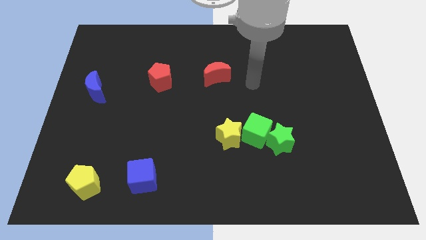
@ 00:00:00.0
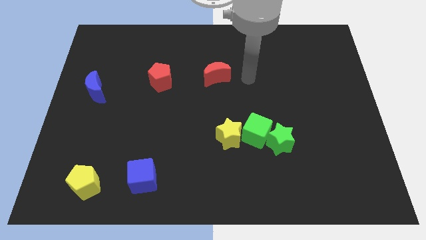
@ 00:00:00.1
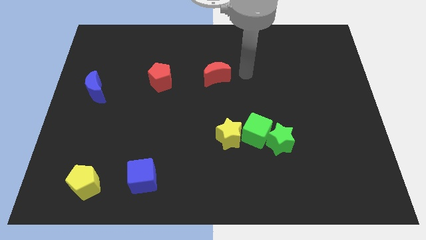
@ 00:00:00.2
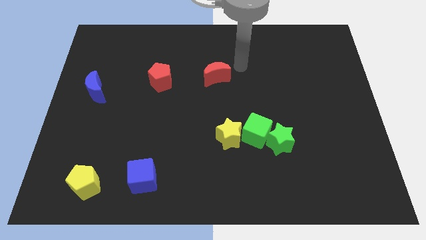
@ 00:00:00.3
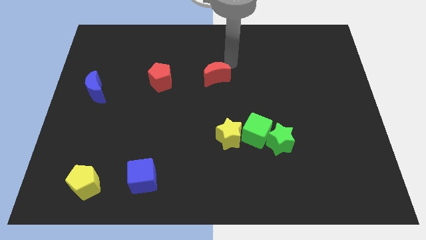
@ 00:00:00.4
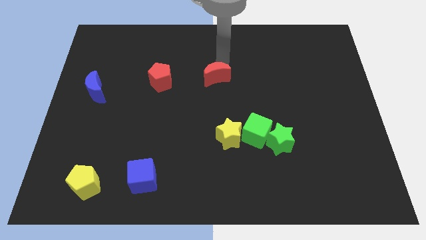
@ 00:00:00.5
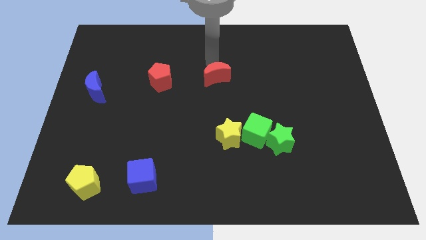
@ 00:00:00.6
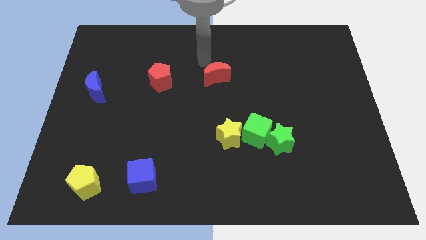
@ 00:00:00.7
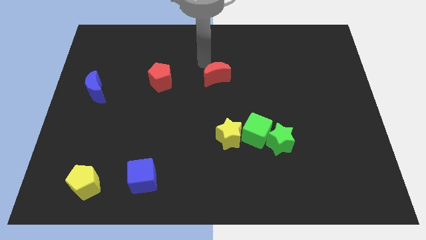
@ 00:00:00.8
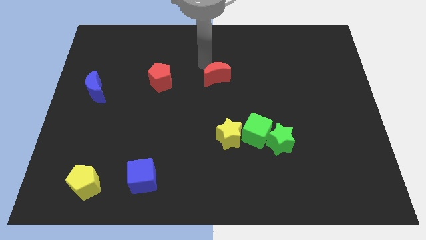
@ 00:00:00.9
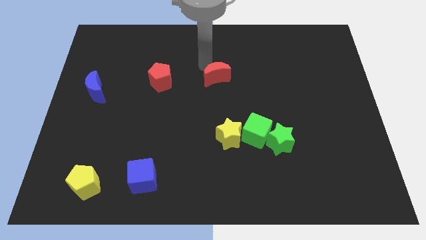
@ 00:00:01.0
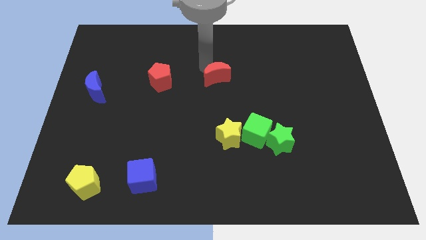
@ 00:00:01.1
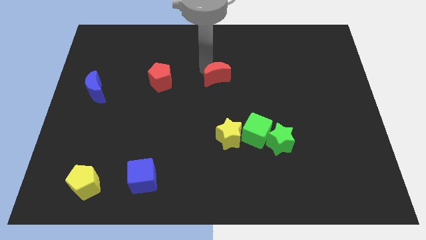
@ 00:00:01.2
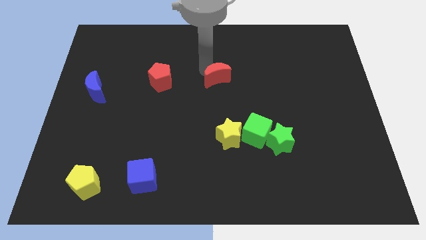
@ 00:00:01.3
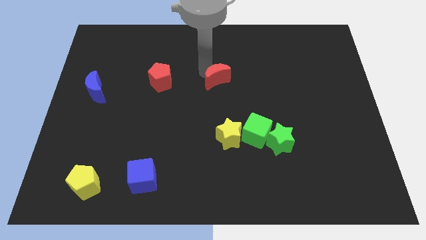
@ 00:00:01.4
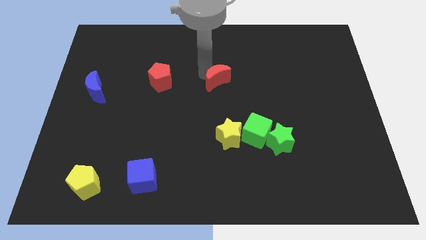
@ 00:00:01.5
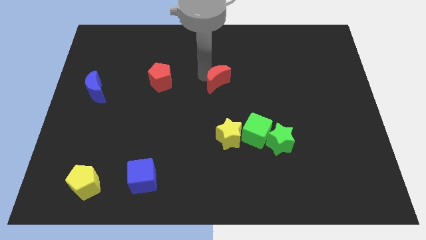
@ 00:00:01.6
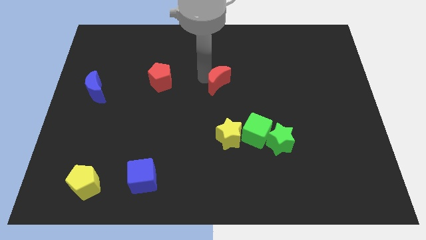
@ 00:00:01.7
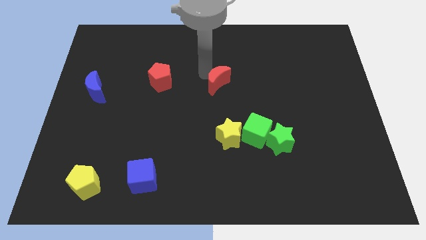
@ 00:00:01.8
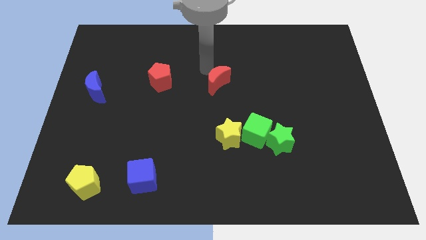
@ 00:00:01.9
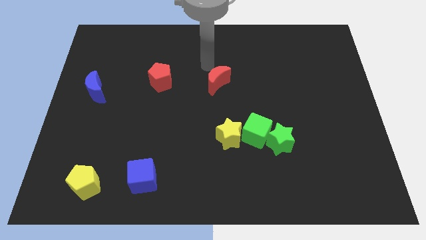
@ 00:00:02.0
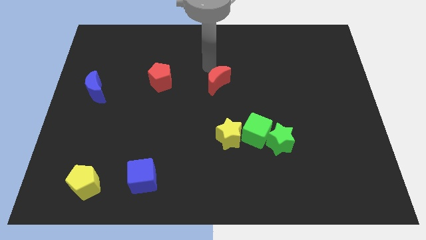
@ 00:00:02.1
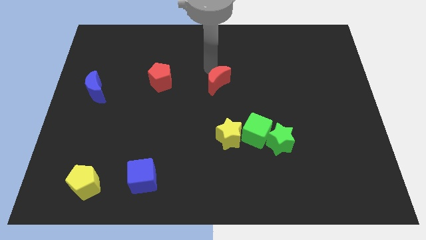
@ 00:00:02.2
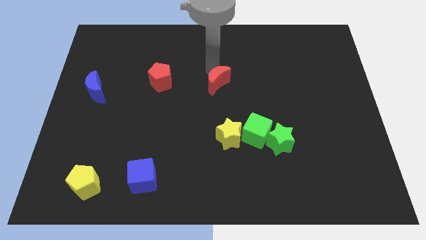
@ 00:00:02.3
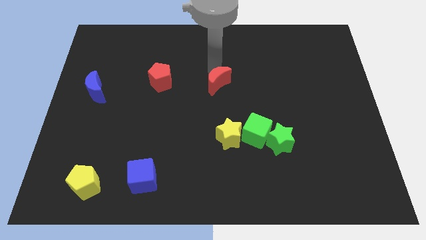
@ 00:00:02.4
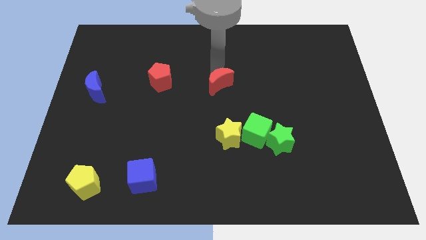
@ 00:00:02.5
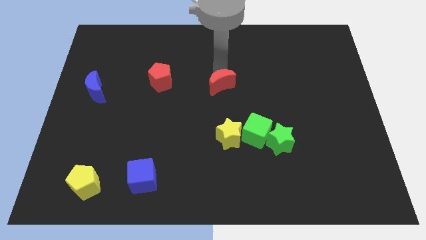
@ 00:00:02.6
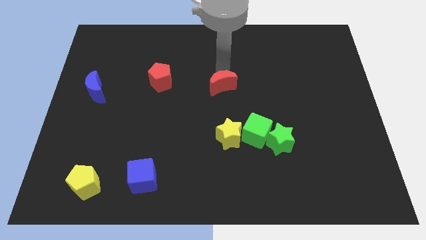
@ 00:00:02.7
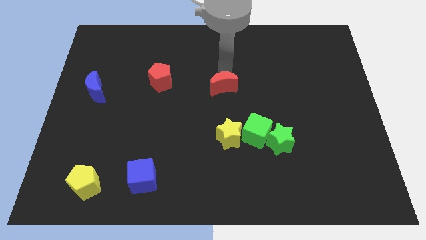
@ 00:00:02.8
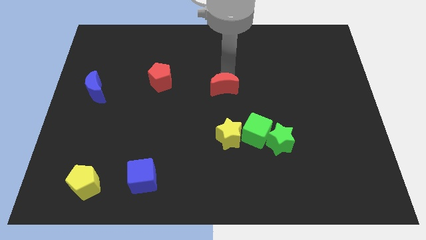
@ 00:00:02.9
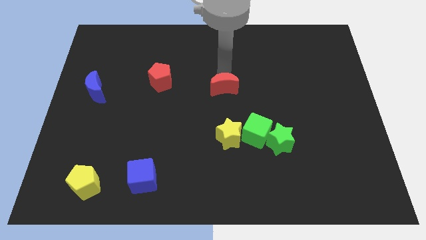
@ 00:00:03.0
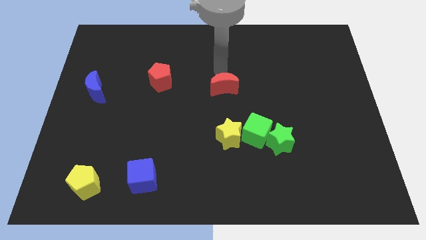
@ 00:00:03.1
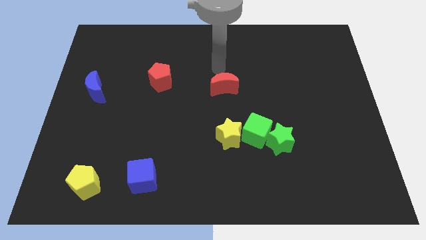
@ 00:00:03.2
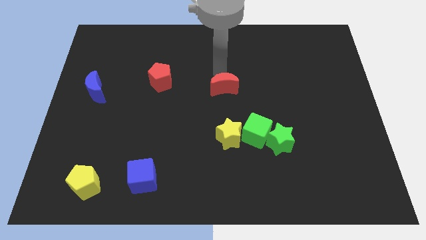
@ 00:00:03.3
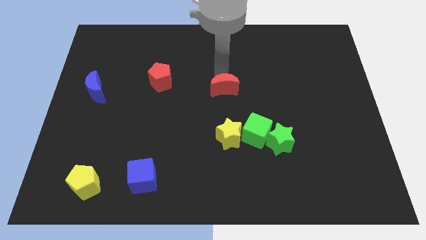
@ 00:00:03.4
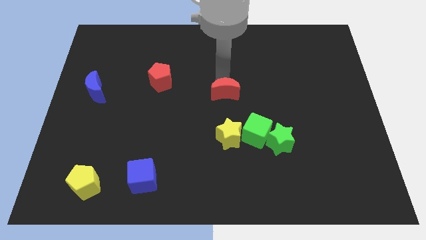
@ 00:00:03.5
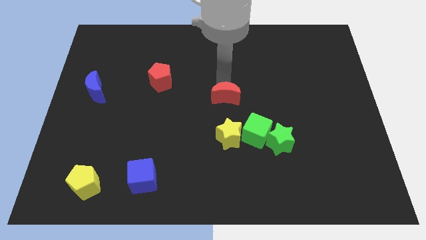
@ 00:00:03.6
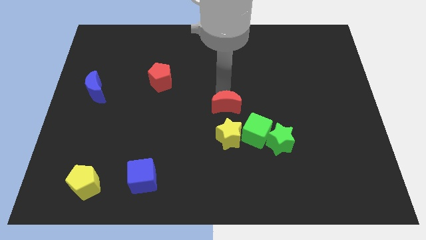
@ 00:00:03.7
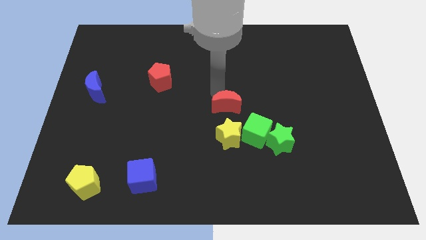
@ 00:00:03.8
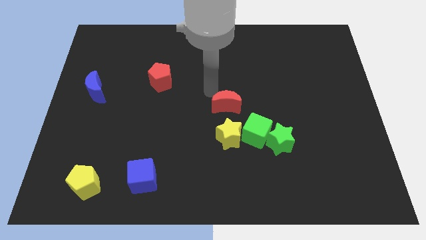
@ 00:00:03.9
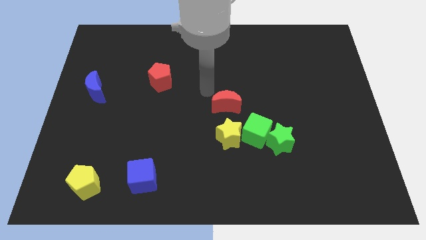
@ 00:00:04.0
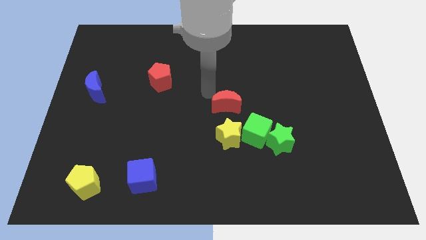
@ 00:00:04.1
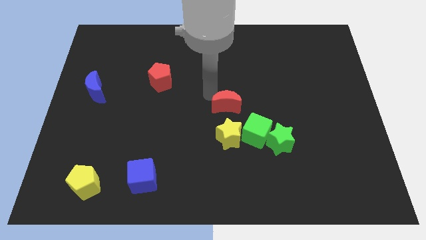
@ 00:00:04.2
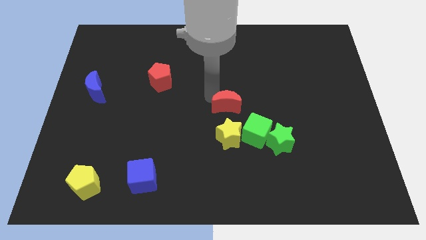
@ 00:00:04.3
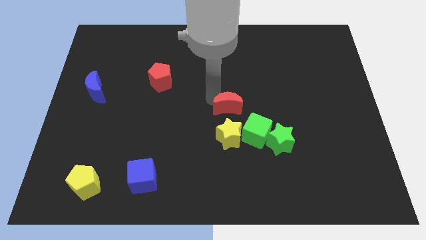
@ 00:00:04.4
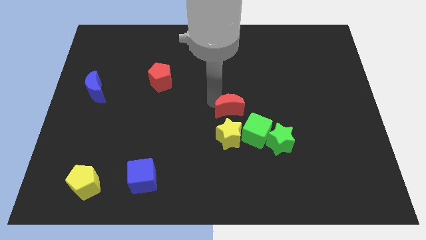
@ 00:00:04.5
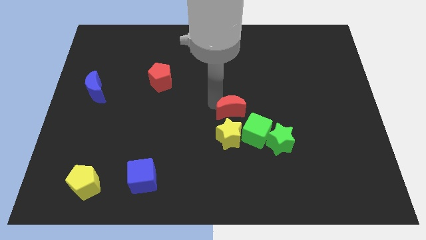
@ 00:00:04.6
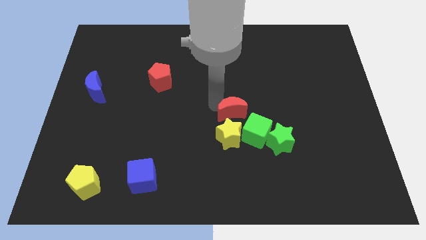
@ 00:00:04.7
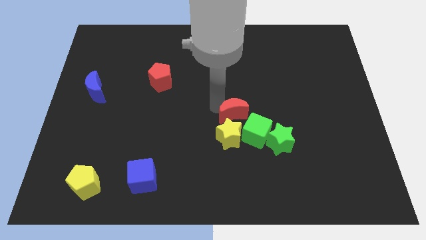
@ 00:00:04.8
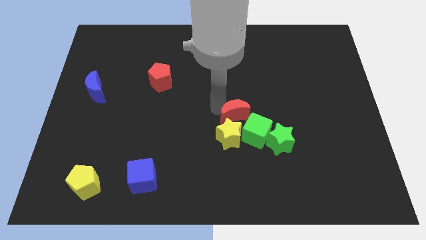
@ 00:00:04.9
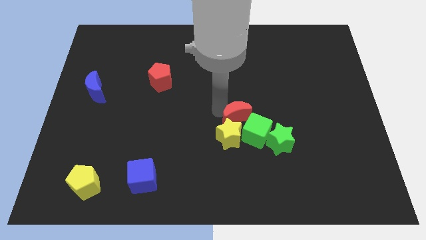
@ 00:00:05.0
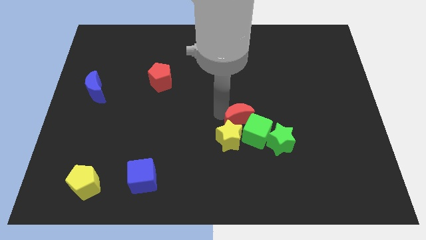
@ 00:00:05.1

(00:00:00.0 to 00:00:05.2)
put the red moon to the green cube

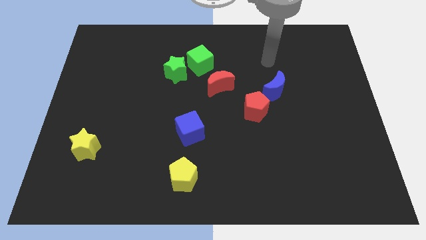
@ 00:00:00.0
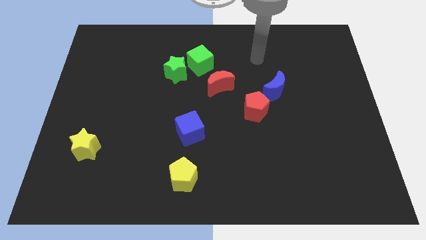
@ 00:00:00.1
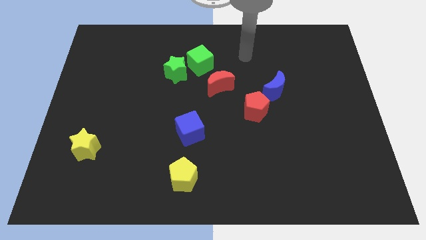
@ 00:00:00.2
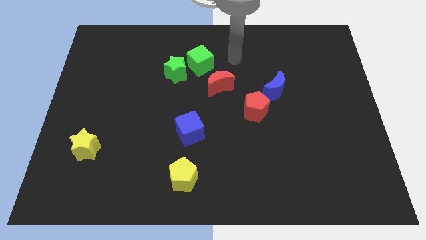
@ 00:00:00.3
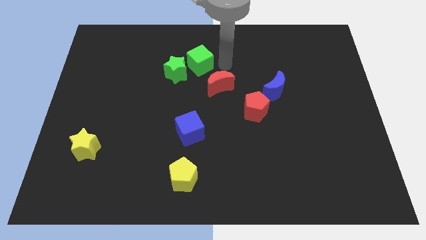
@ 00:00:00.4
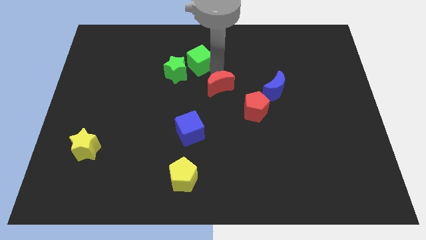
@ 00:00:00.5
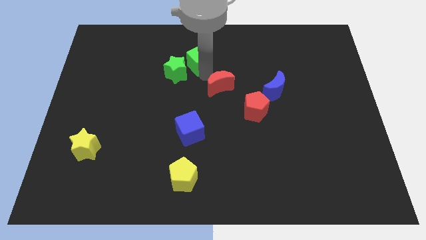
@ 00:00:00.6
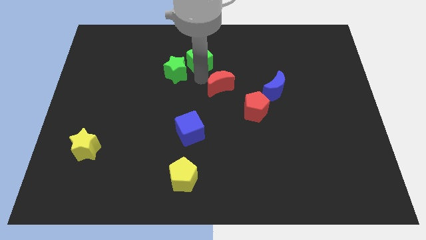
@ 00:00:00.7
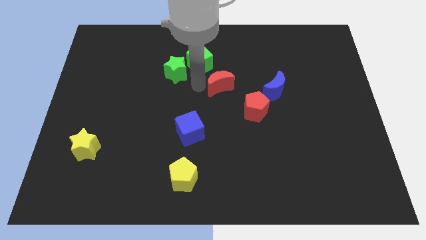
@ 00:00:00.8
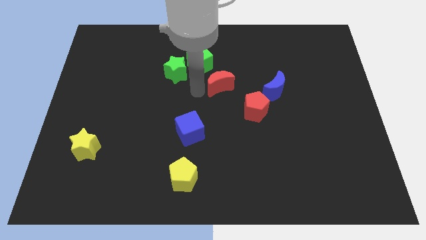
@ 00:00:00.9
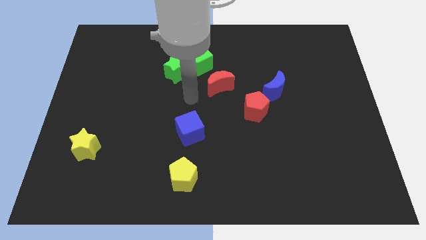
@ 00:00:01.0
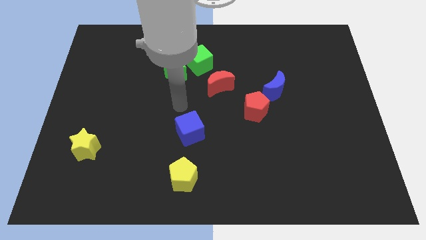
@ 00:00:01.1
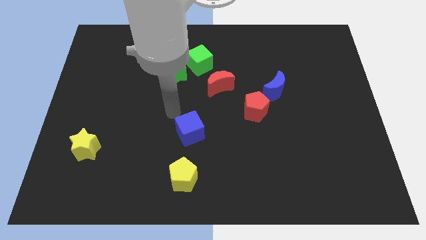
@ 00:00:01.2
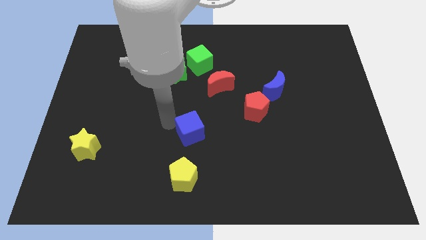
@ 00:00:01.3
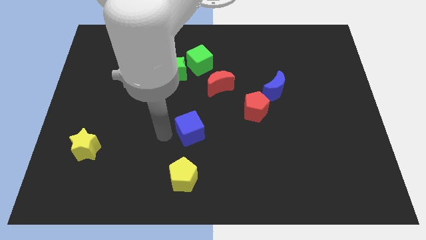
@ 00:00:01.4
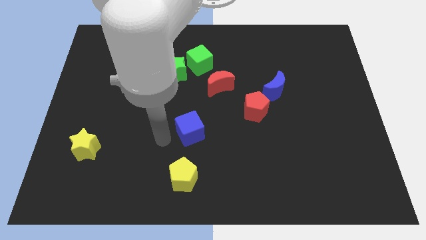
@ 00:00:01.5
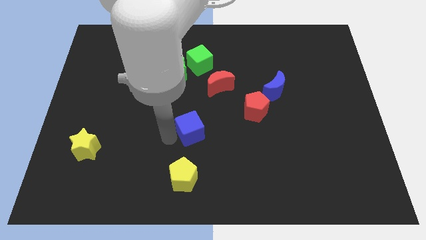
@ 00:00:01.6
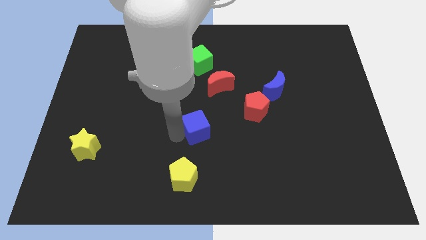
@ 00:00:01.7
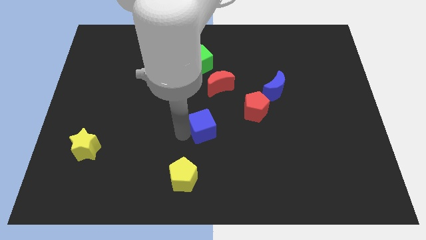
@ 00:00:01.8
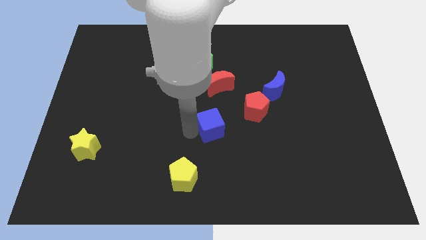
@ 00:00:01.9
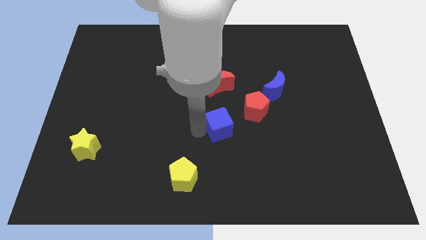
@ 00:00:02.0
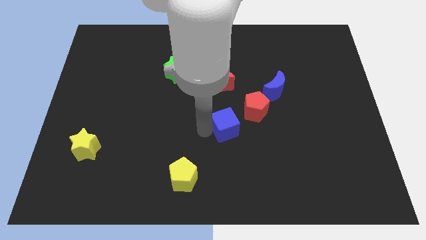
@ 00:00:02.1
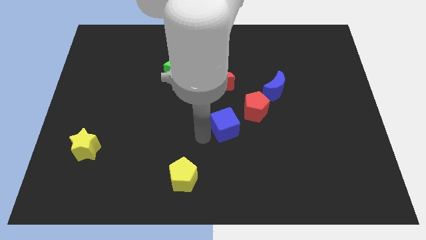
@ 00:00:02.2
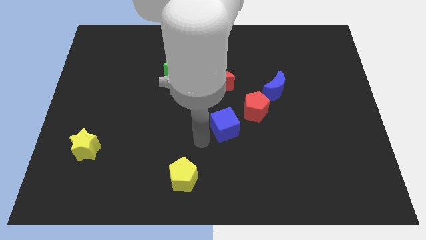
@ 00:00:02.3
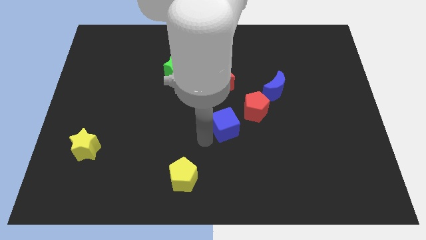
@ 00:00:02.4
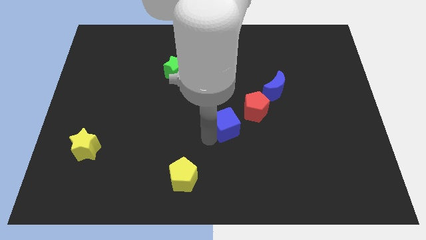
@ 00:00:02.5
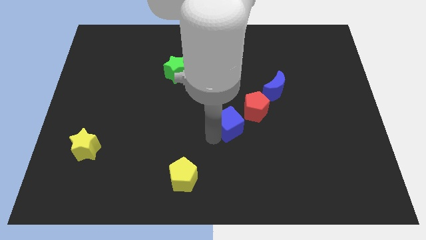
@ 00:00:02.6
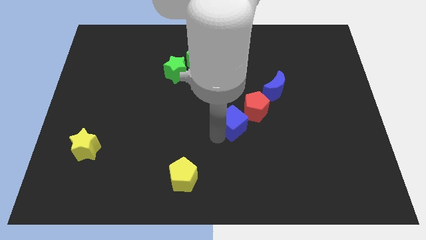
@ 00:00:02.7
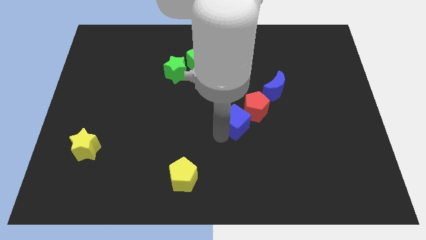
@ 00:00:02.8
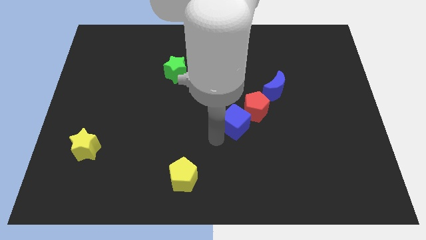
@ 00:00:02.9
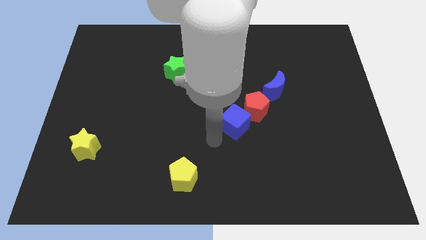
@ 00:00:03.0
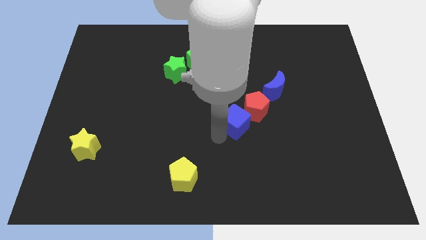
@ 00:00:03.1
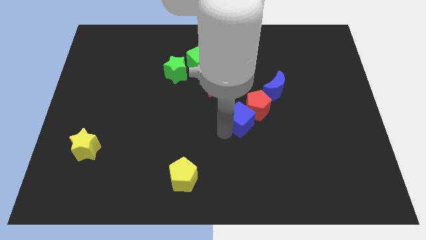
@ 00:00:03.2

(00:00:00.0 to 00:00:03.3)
move the blue cube next to the red pentagon
